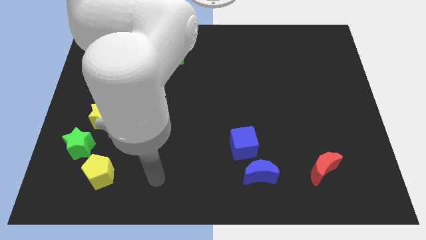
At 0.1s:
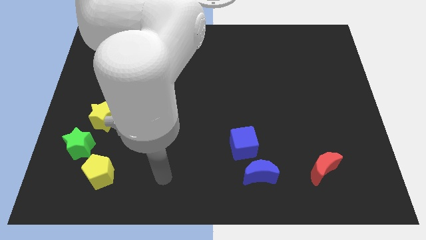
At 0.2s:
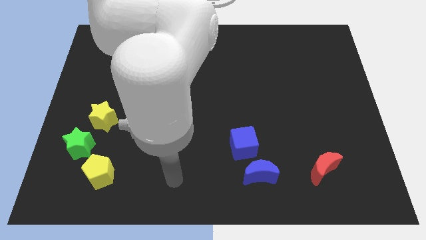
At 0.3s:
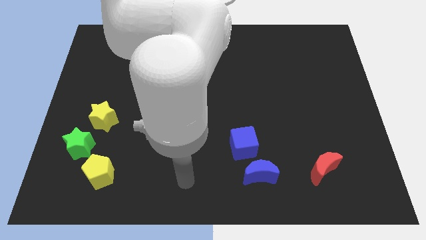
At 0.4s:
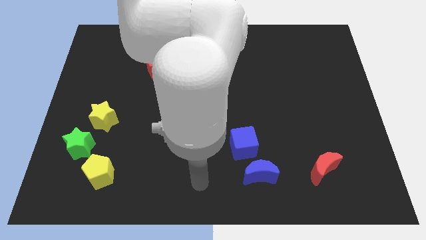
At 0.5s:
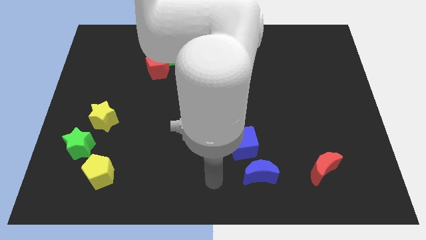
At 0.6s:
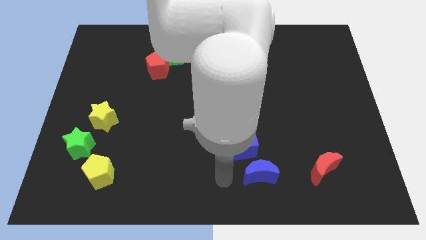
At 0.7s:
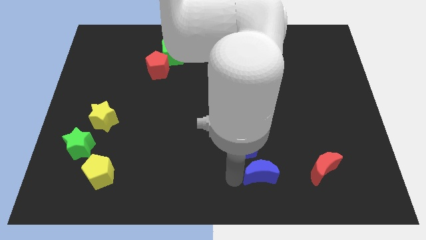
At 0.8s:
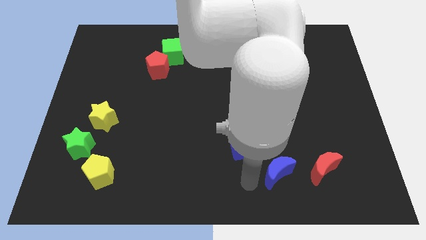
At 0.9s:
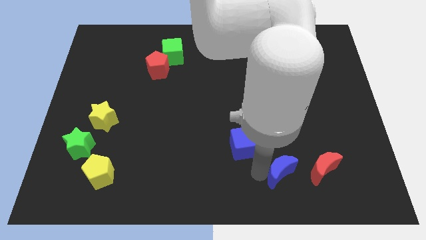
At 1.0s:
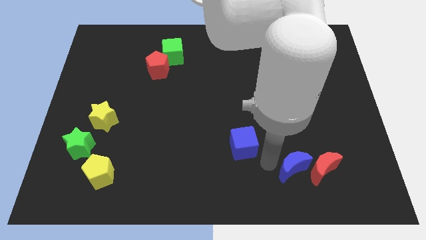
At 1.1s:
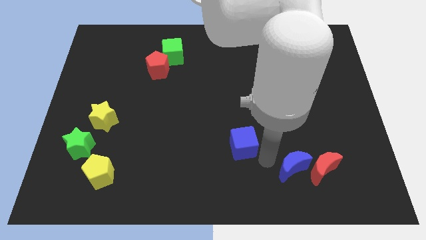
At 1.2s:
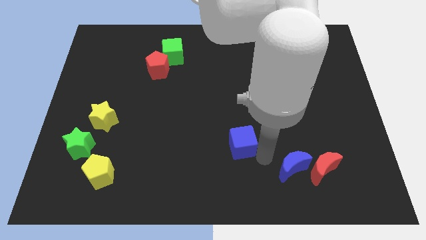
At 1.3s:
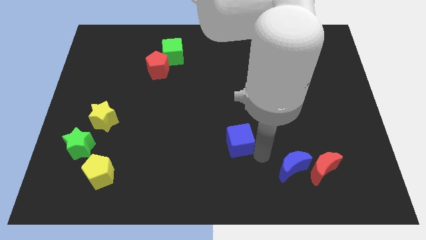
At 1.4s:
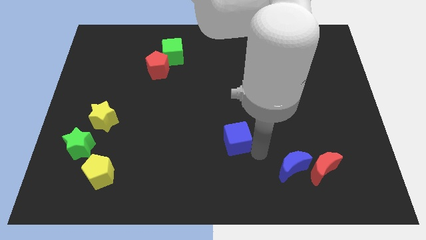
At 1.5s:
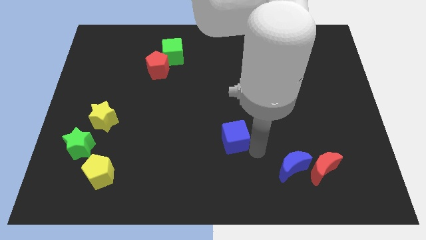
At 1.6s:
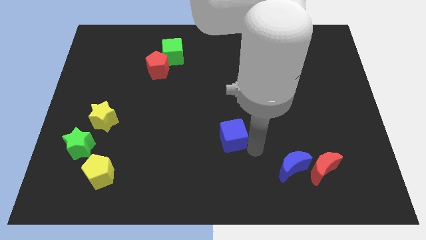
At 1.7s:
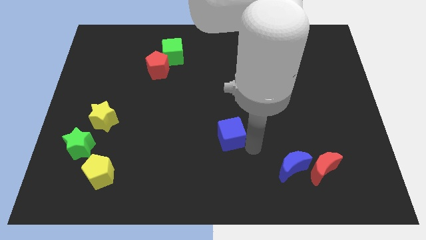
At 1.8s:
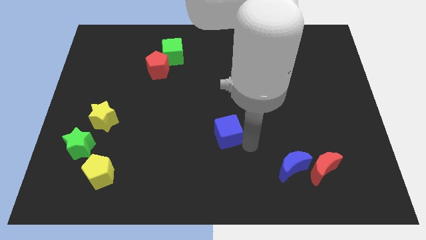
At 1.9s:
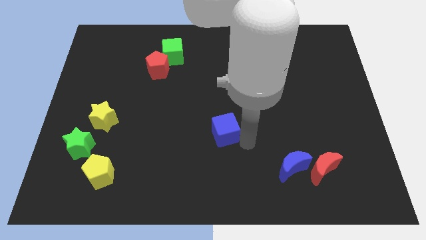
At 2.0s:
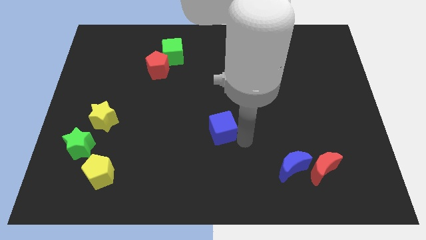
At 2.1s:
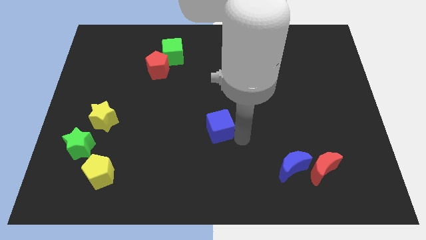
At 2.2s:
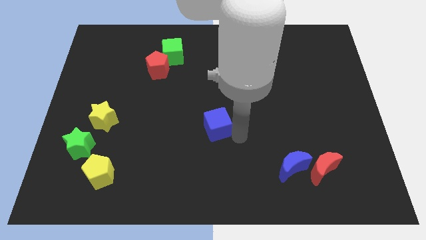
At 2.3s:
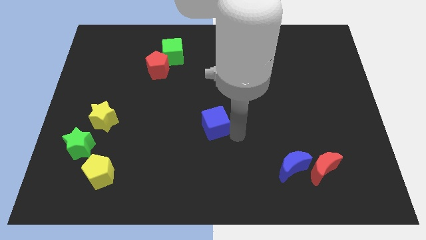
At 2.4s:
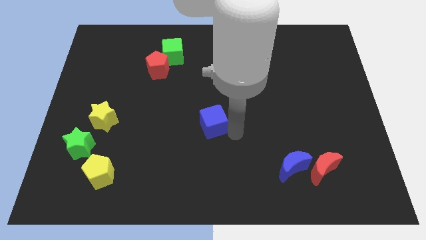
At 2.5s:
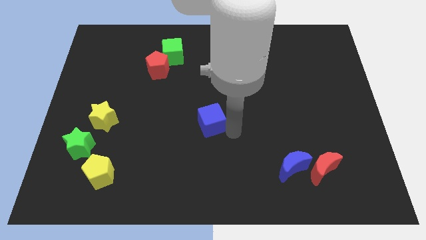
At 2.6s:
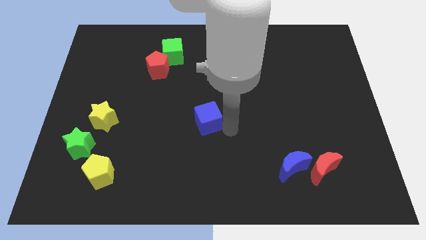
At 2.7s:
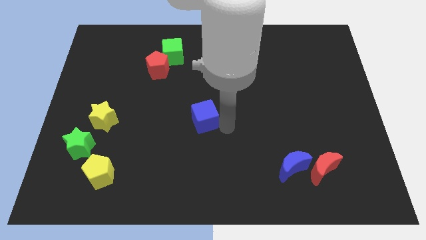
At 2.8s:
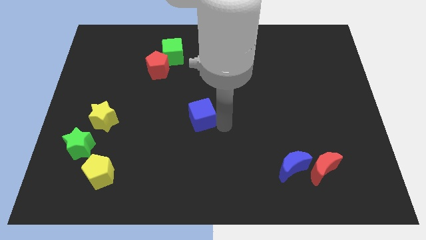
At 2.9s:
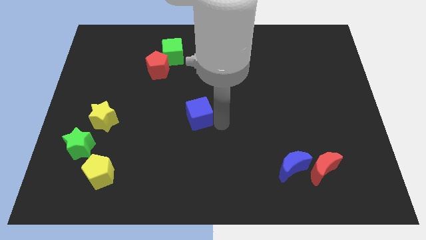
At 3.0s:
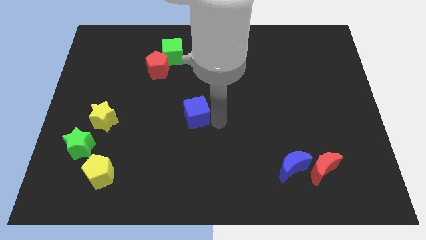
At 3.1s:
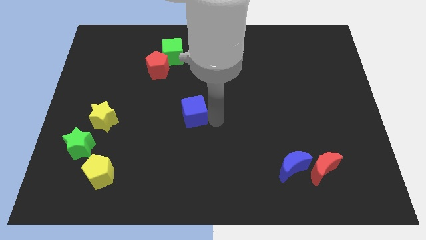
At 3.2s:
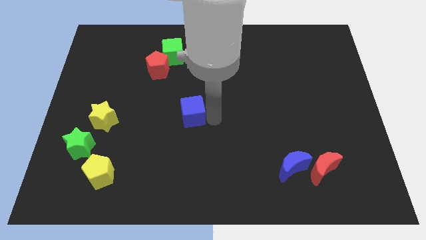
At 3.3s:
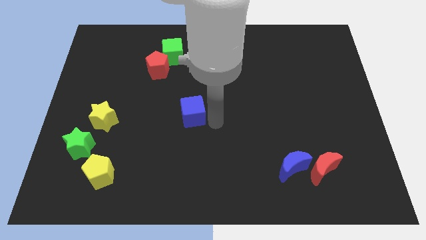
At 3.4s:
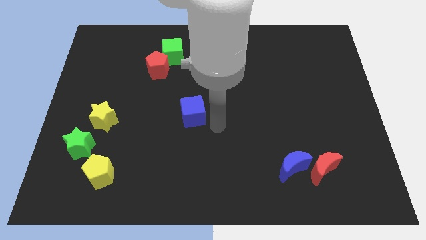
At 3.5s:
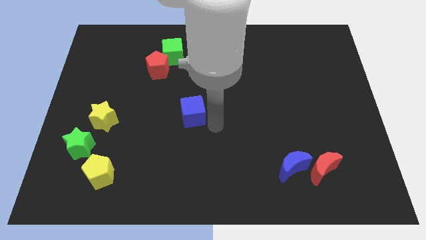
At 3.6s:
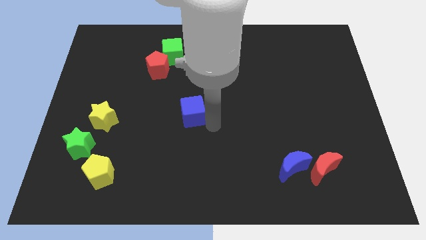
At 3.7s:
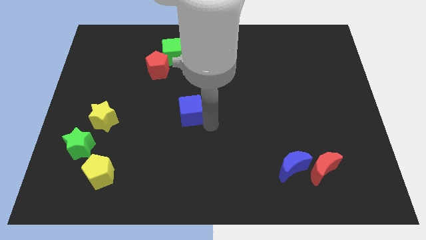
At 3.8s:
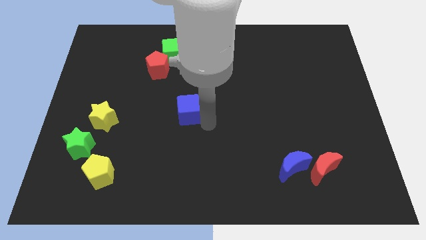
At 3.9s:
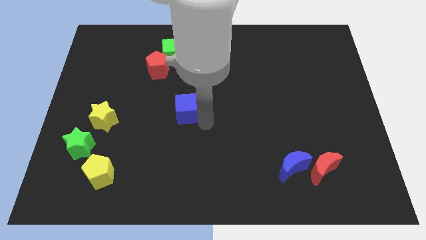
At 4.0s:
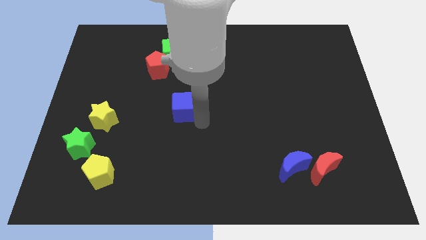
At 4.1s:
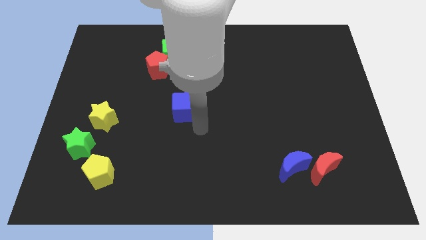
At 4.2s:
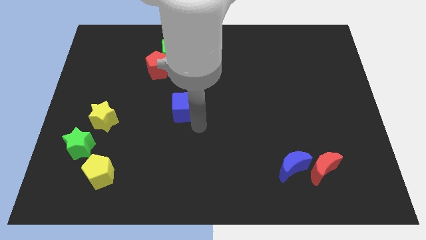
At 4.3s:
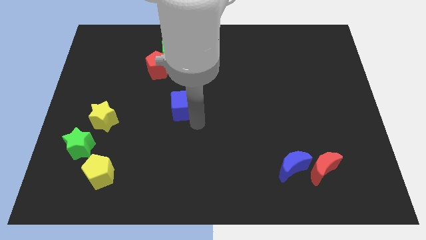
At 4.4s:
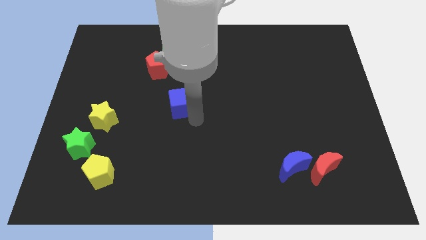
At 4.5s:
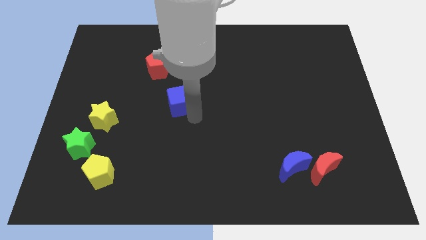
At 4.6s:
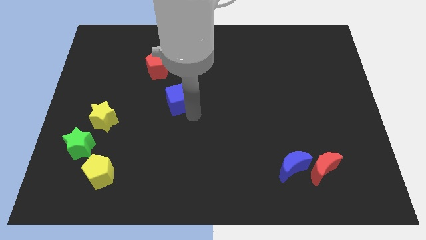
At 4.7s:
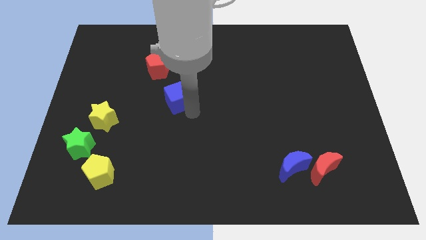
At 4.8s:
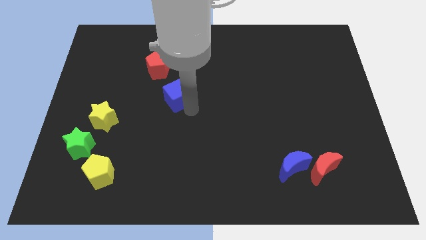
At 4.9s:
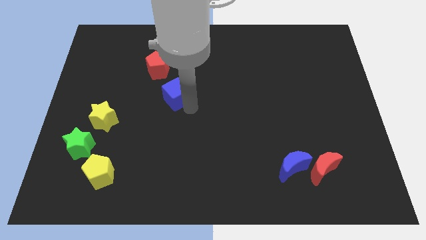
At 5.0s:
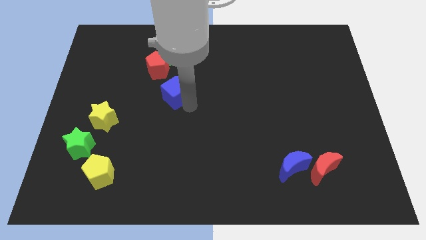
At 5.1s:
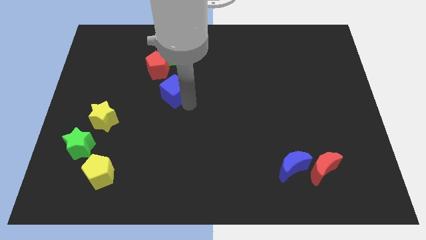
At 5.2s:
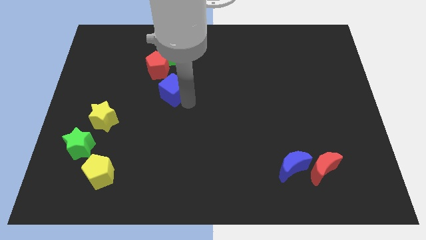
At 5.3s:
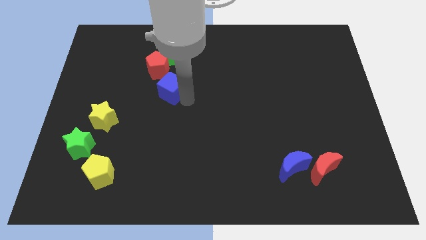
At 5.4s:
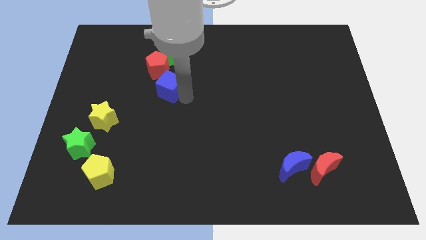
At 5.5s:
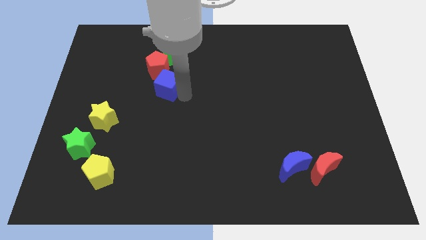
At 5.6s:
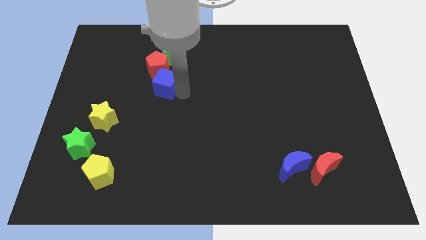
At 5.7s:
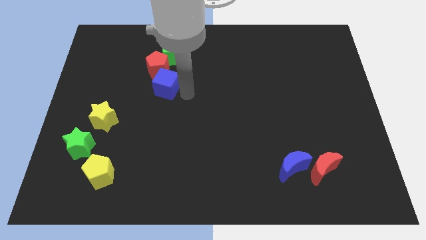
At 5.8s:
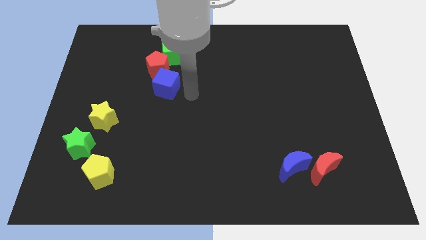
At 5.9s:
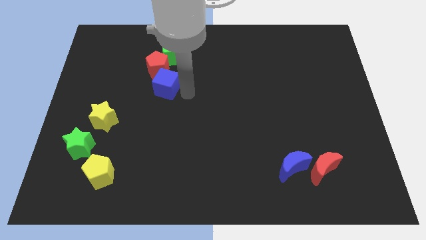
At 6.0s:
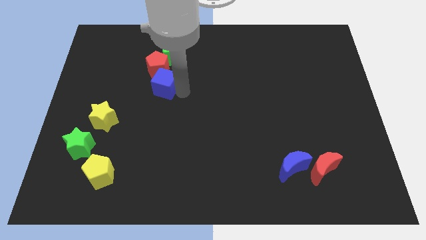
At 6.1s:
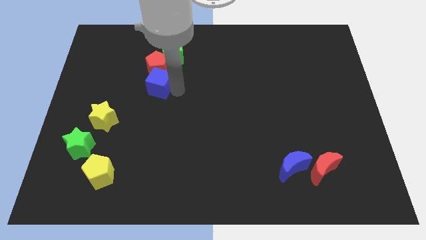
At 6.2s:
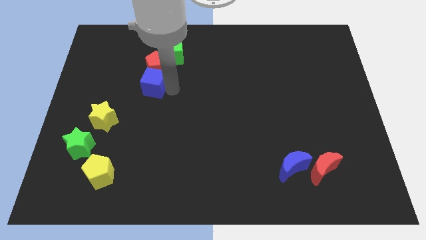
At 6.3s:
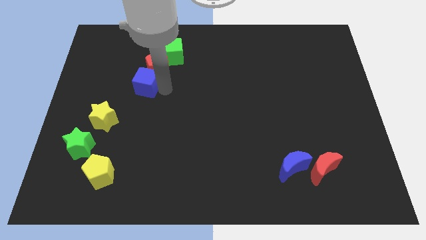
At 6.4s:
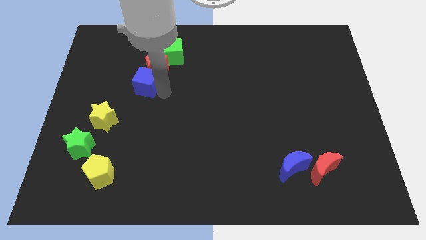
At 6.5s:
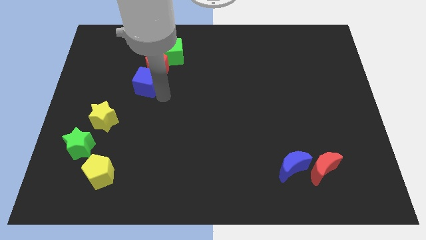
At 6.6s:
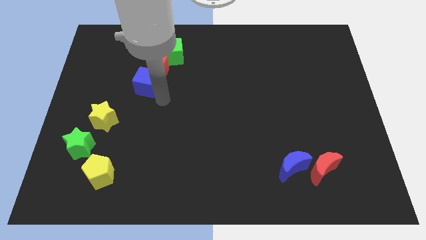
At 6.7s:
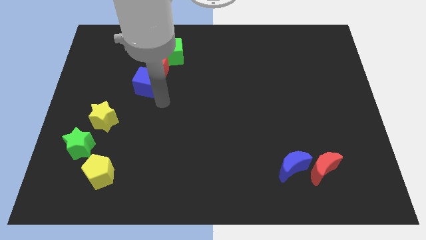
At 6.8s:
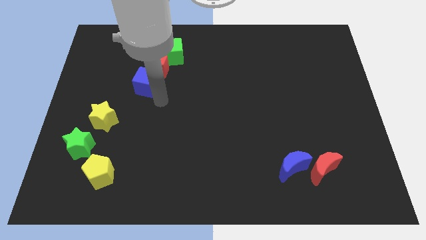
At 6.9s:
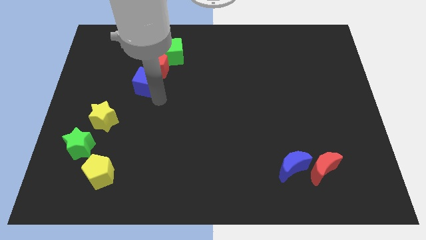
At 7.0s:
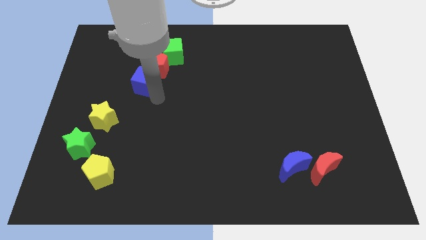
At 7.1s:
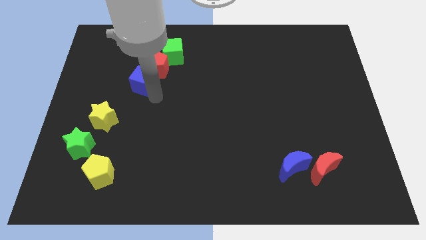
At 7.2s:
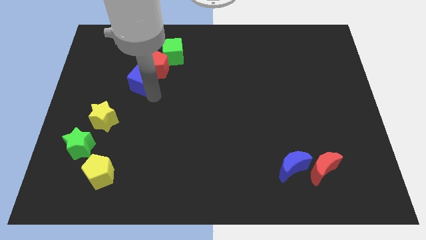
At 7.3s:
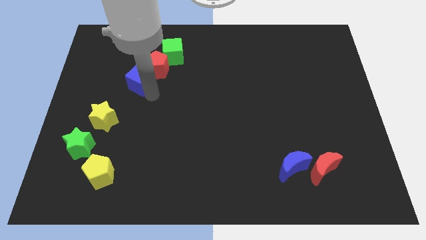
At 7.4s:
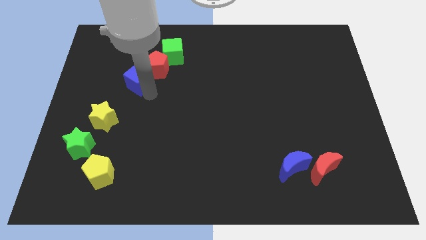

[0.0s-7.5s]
push the blue cube just left of the red pentagon
